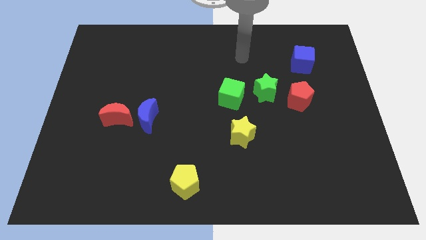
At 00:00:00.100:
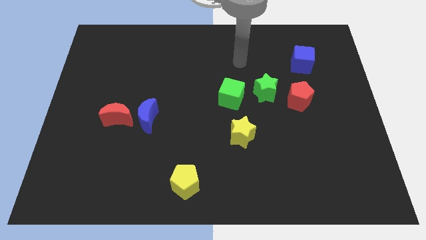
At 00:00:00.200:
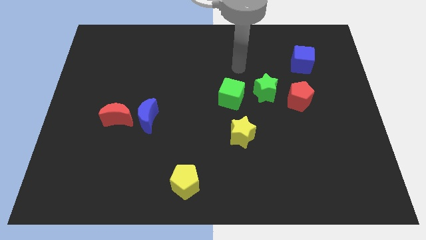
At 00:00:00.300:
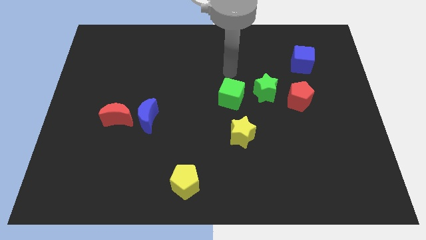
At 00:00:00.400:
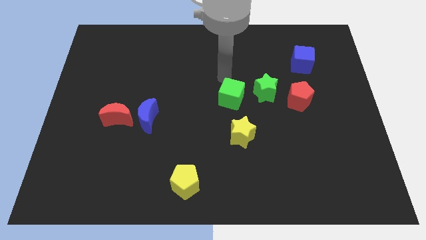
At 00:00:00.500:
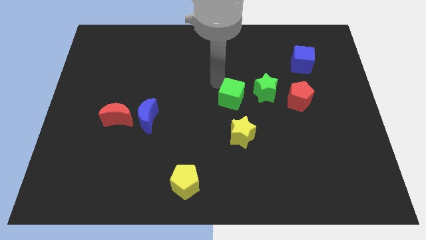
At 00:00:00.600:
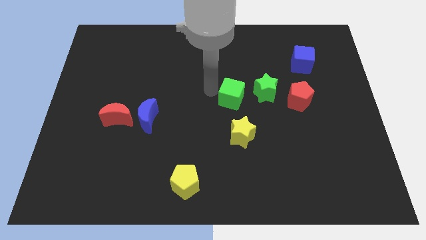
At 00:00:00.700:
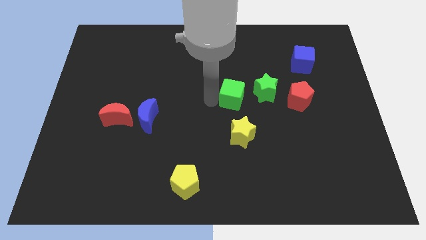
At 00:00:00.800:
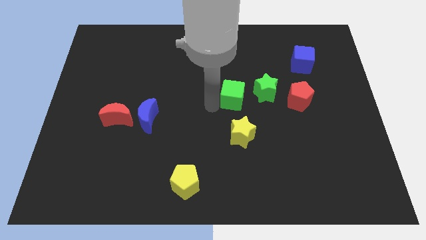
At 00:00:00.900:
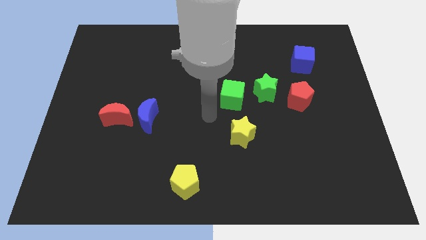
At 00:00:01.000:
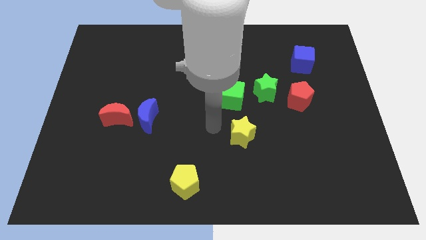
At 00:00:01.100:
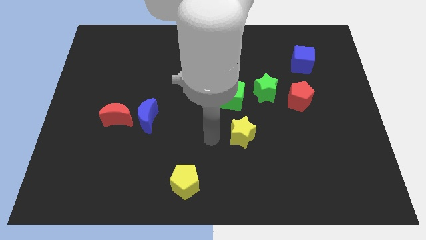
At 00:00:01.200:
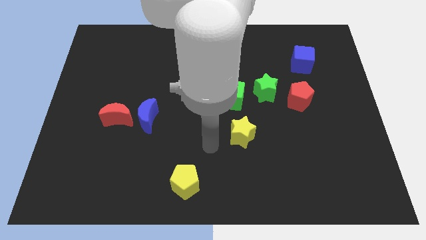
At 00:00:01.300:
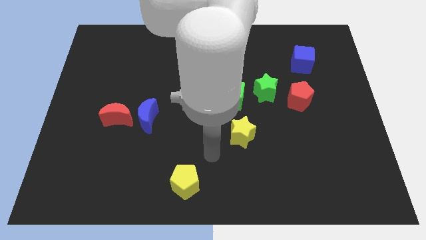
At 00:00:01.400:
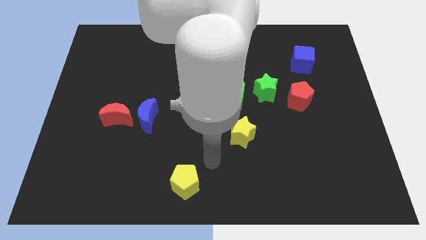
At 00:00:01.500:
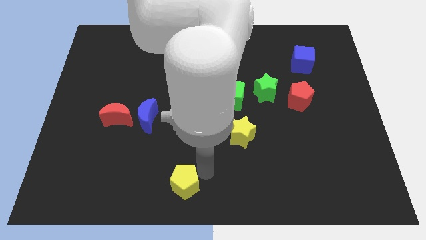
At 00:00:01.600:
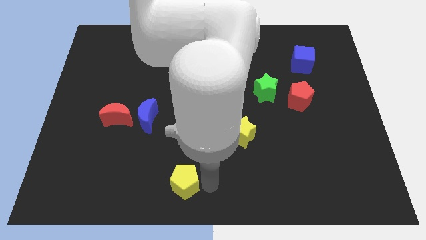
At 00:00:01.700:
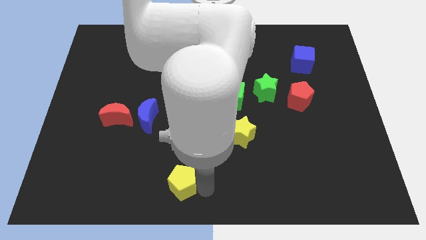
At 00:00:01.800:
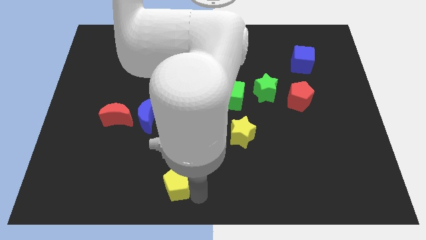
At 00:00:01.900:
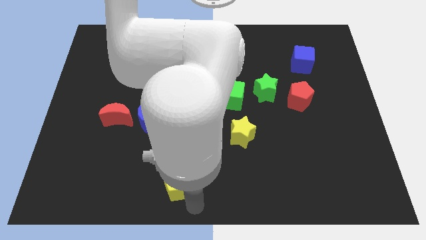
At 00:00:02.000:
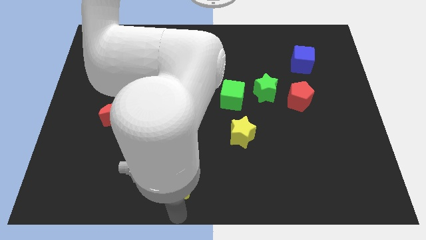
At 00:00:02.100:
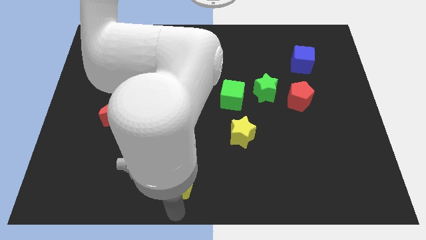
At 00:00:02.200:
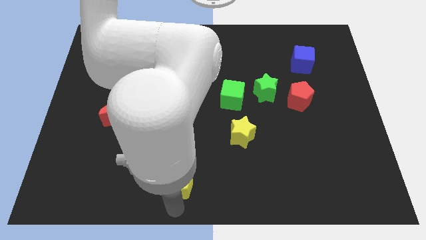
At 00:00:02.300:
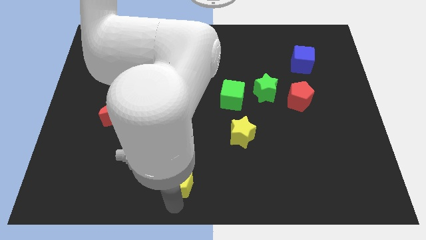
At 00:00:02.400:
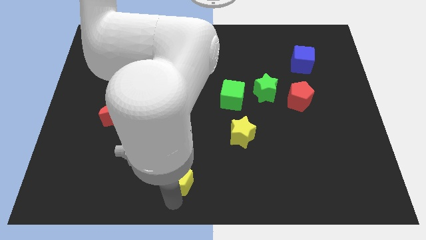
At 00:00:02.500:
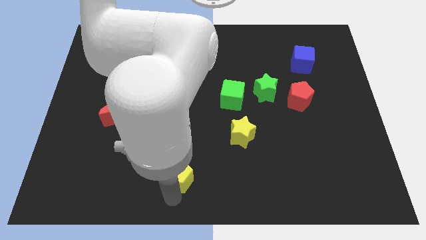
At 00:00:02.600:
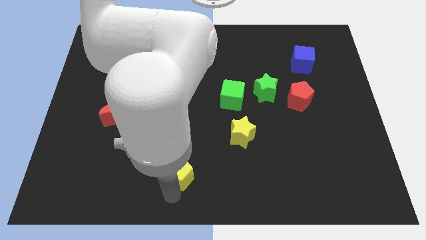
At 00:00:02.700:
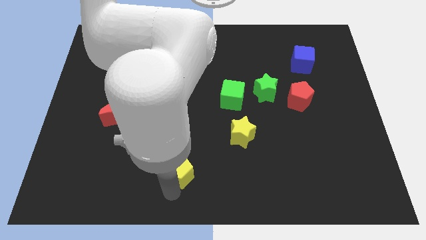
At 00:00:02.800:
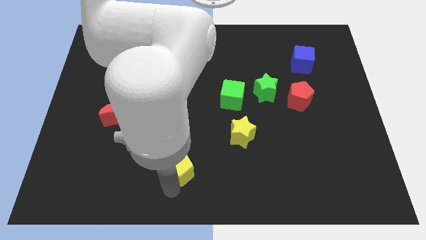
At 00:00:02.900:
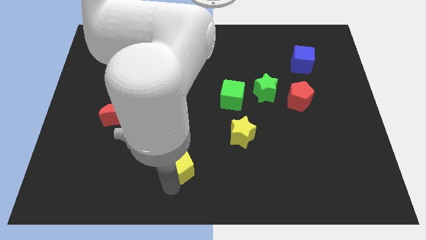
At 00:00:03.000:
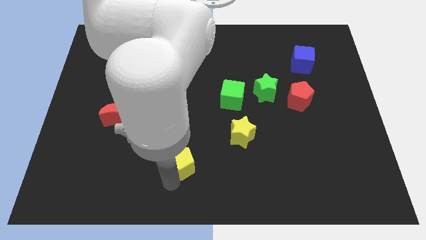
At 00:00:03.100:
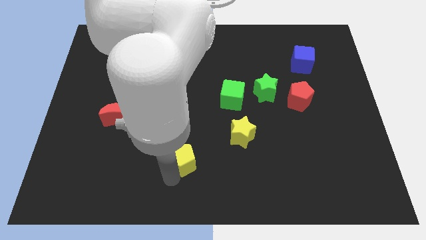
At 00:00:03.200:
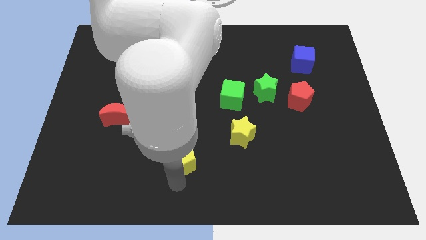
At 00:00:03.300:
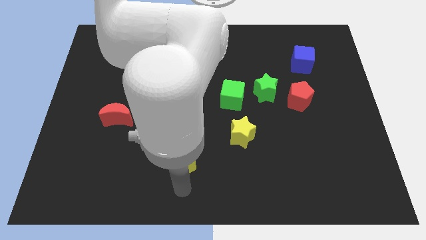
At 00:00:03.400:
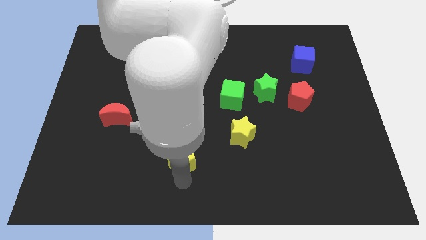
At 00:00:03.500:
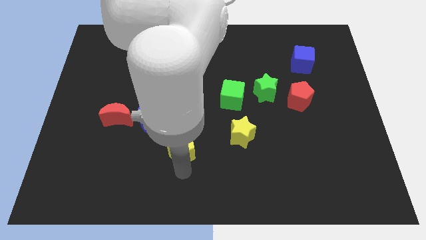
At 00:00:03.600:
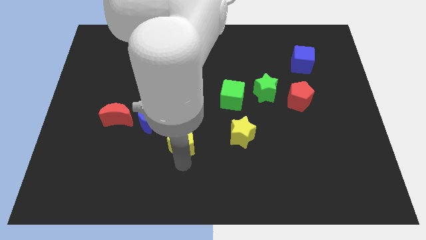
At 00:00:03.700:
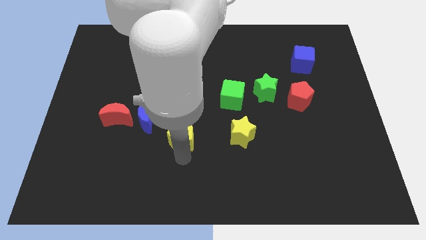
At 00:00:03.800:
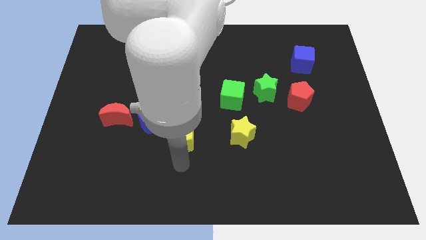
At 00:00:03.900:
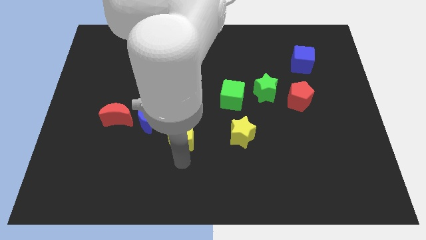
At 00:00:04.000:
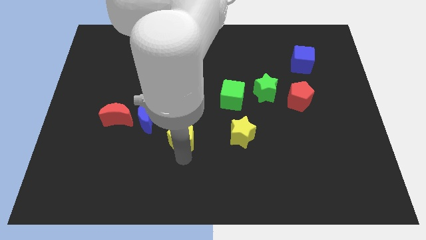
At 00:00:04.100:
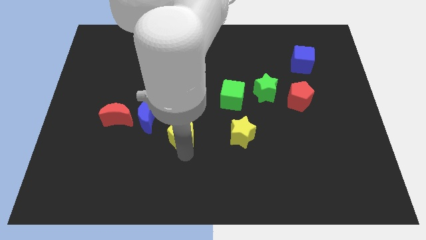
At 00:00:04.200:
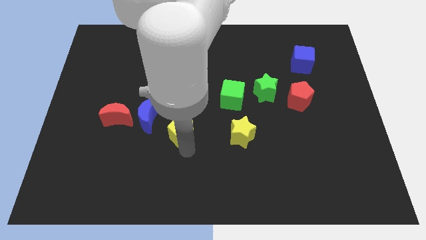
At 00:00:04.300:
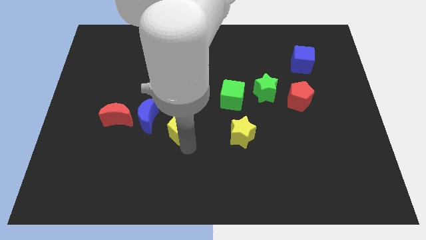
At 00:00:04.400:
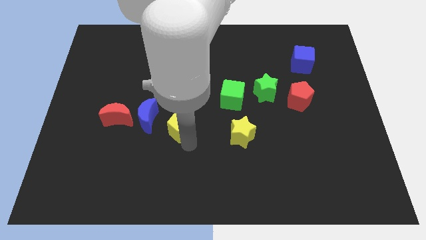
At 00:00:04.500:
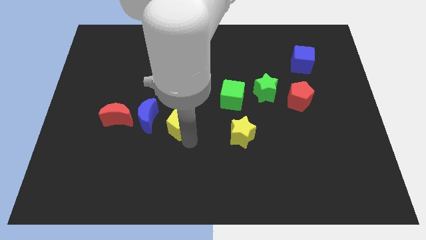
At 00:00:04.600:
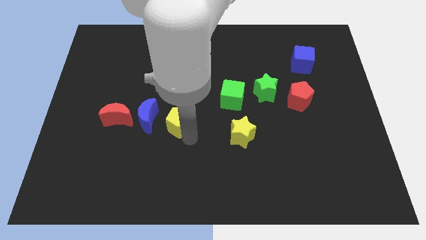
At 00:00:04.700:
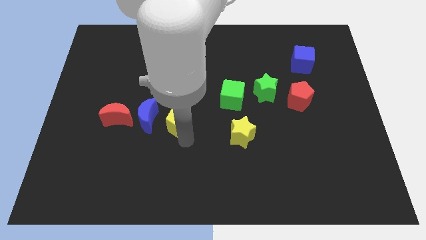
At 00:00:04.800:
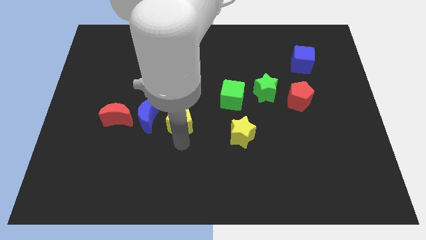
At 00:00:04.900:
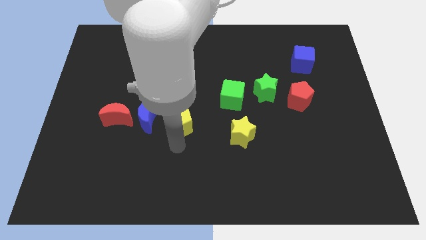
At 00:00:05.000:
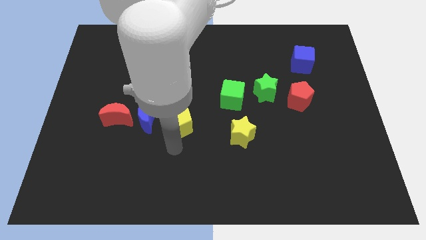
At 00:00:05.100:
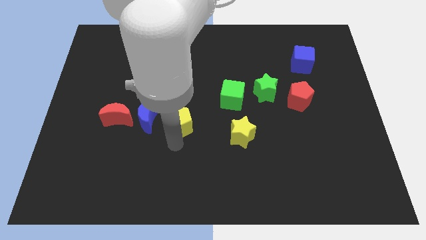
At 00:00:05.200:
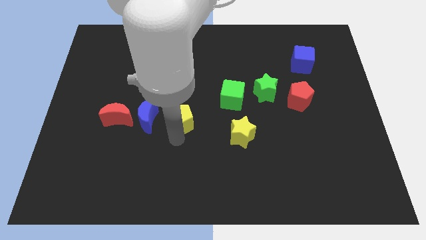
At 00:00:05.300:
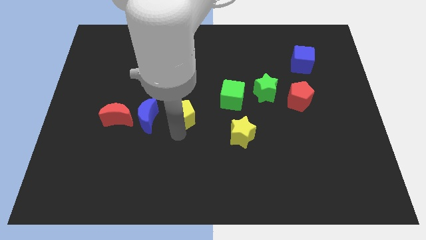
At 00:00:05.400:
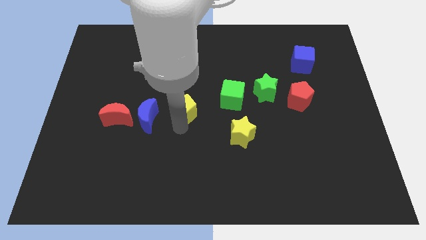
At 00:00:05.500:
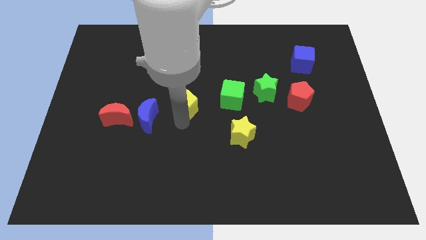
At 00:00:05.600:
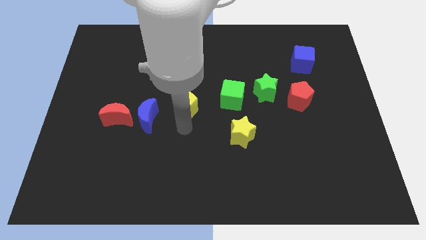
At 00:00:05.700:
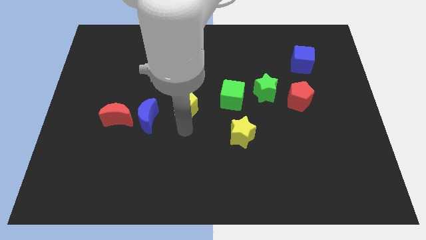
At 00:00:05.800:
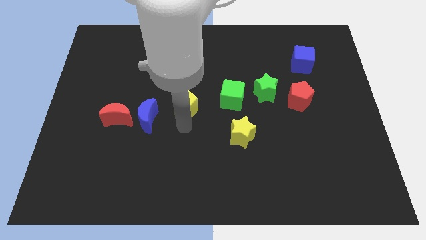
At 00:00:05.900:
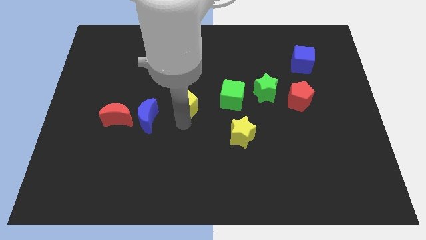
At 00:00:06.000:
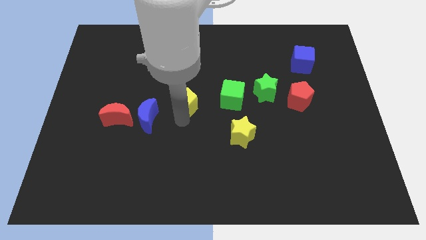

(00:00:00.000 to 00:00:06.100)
move the yellow pentagon upwards

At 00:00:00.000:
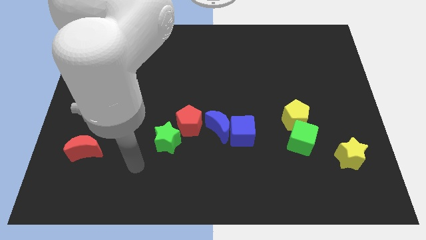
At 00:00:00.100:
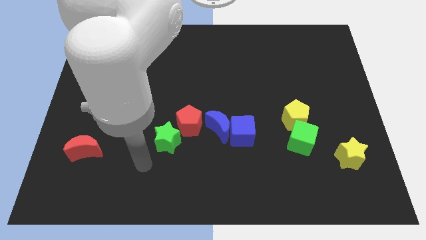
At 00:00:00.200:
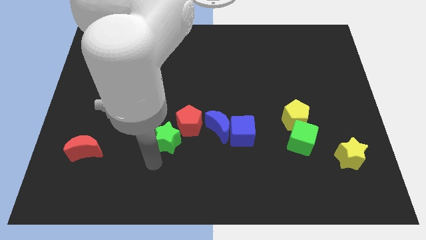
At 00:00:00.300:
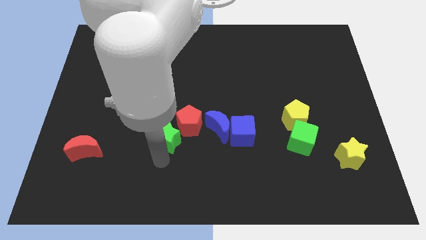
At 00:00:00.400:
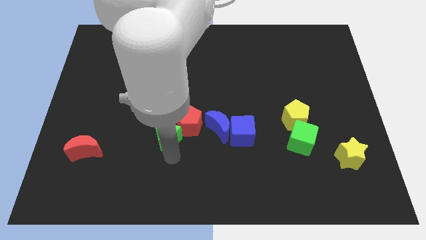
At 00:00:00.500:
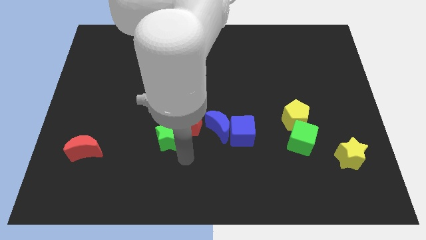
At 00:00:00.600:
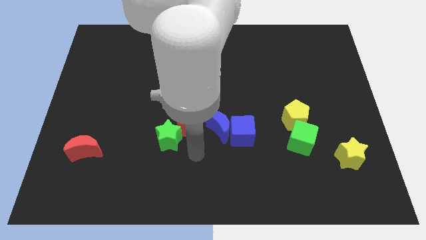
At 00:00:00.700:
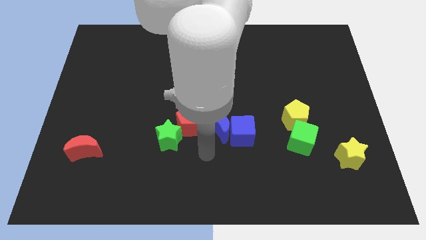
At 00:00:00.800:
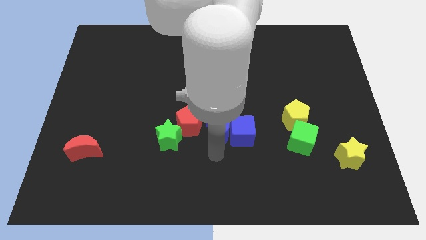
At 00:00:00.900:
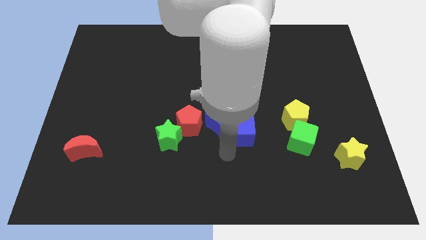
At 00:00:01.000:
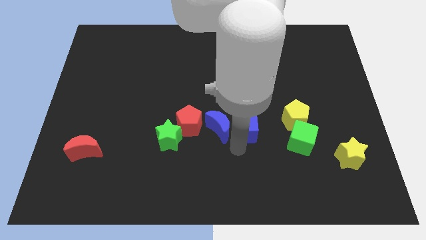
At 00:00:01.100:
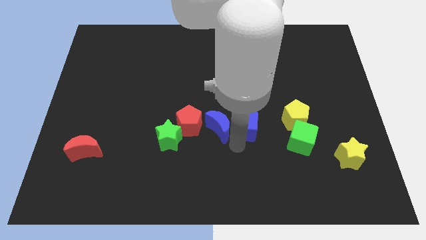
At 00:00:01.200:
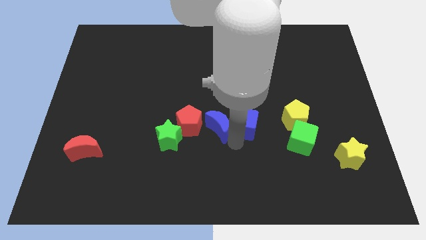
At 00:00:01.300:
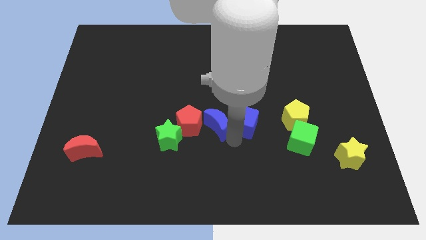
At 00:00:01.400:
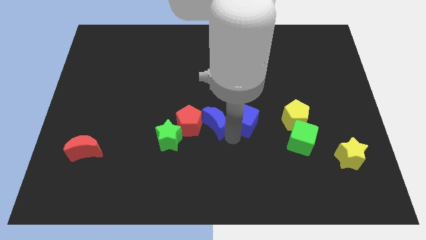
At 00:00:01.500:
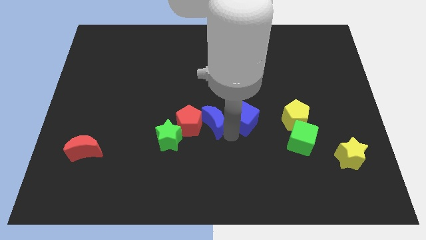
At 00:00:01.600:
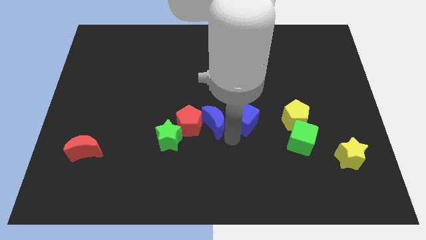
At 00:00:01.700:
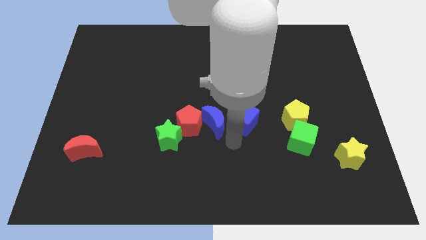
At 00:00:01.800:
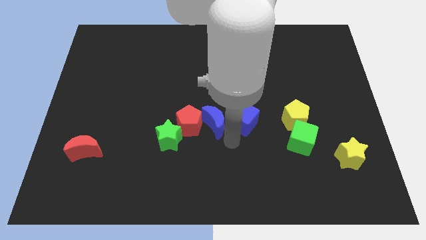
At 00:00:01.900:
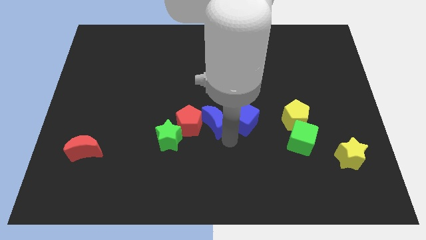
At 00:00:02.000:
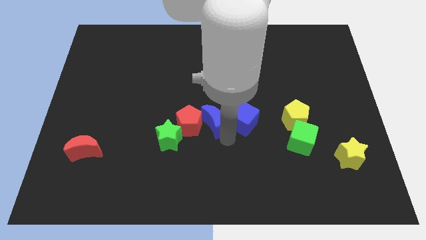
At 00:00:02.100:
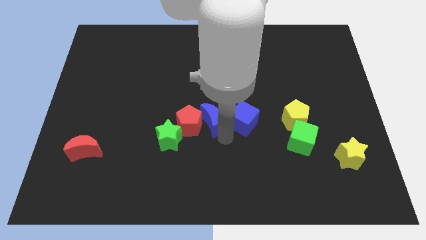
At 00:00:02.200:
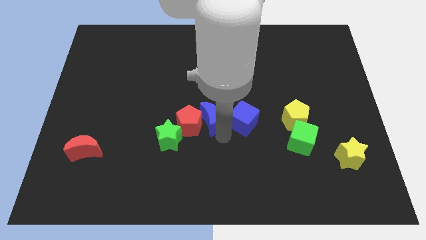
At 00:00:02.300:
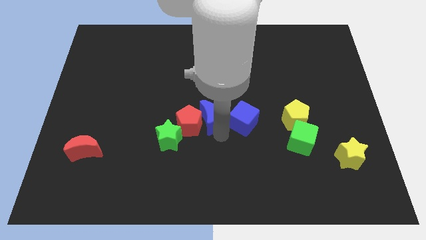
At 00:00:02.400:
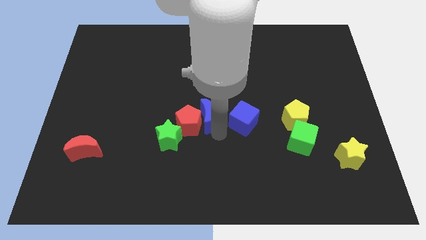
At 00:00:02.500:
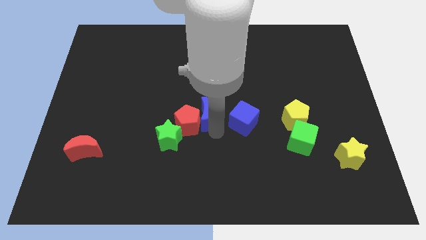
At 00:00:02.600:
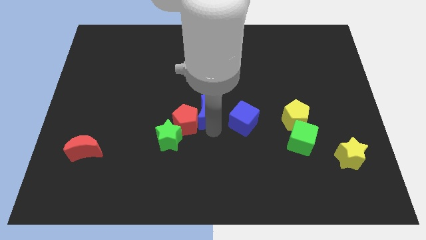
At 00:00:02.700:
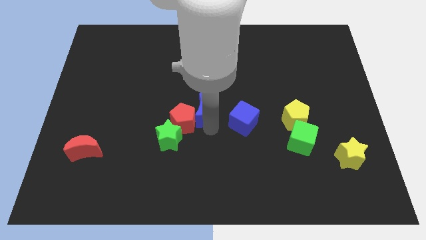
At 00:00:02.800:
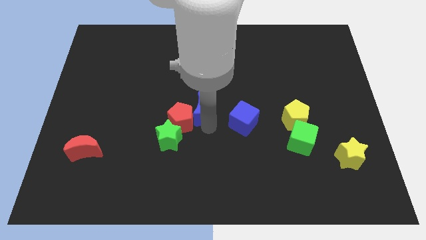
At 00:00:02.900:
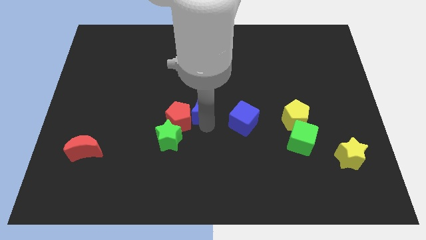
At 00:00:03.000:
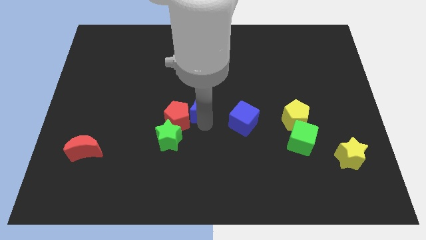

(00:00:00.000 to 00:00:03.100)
slide the blue moon up and to the left slightly
